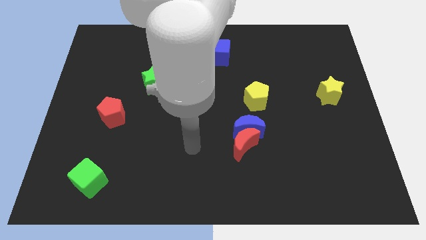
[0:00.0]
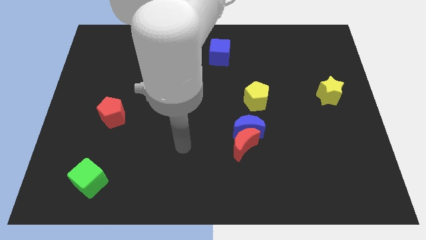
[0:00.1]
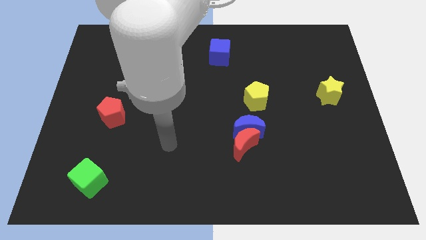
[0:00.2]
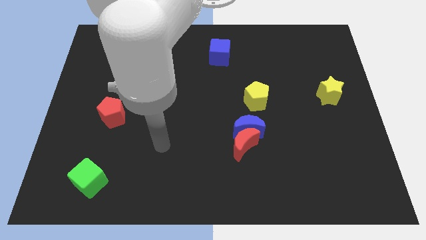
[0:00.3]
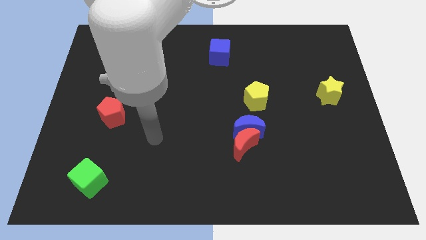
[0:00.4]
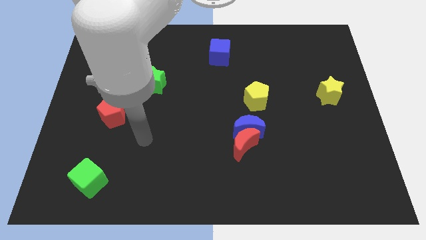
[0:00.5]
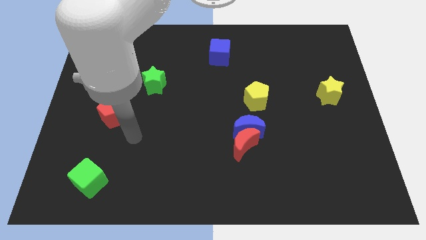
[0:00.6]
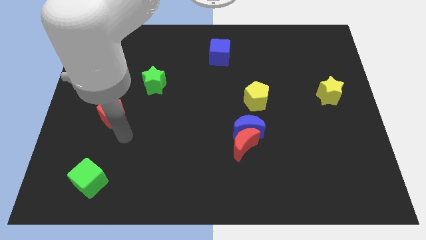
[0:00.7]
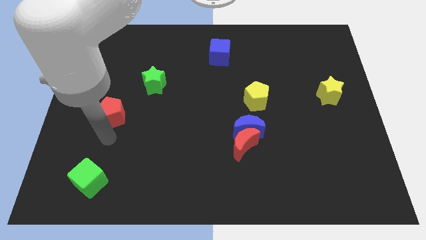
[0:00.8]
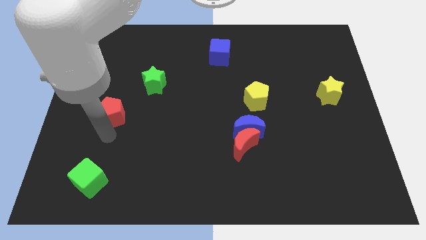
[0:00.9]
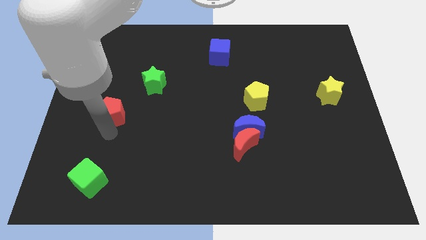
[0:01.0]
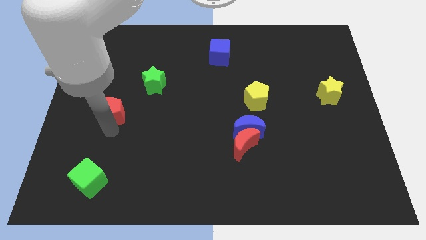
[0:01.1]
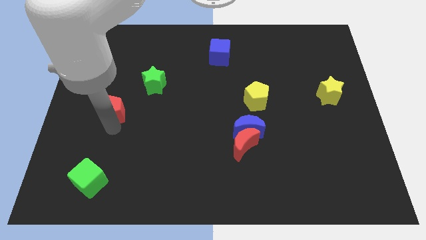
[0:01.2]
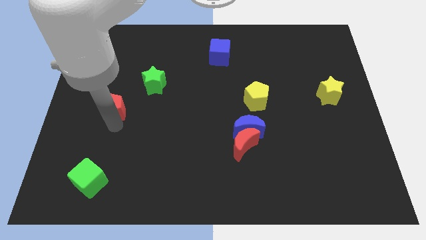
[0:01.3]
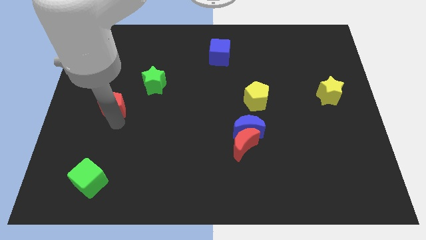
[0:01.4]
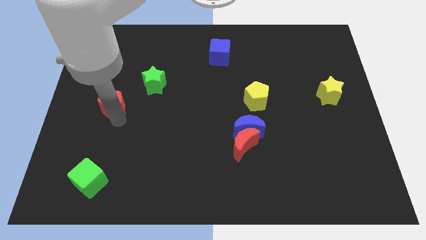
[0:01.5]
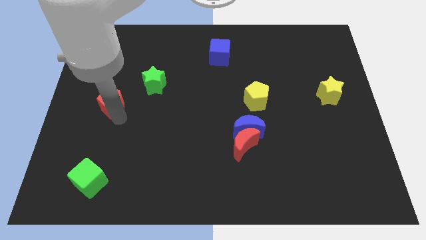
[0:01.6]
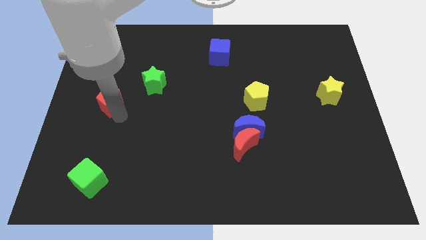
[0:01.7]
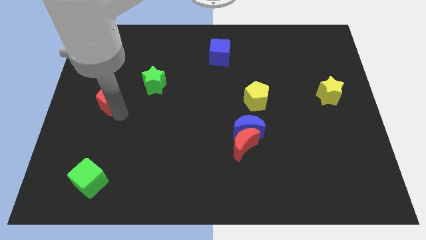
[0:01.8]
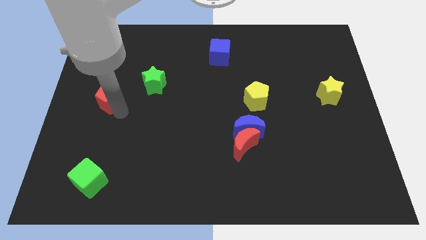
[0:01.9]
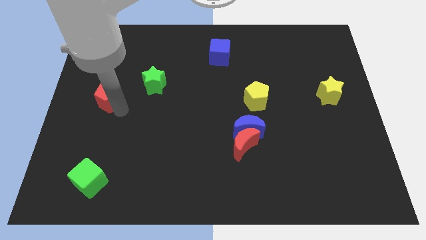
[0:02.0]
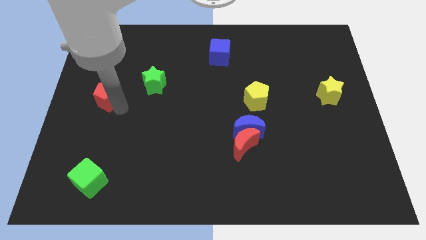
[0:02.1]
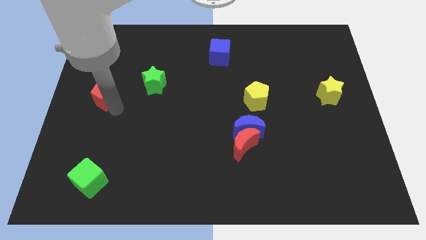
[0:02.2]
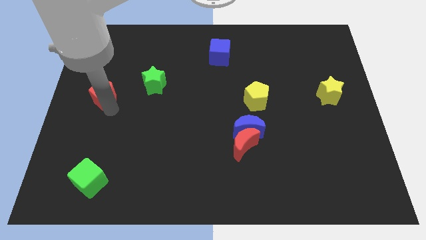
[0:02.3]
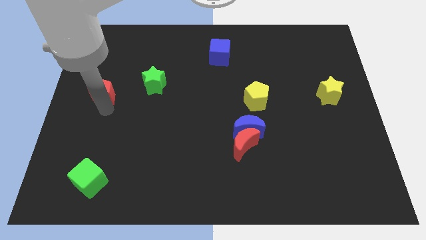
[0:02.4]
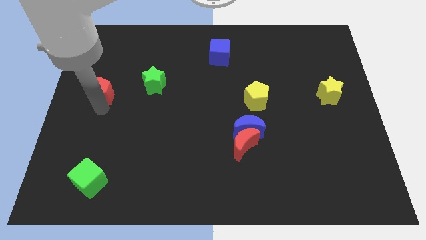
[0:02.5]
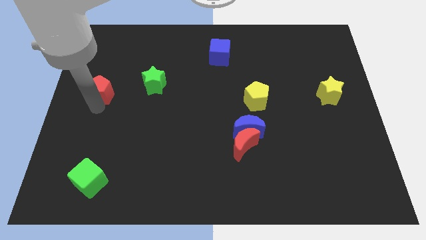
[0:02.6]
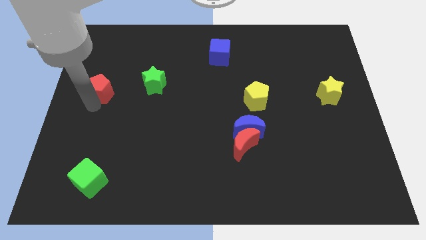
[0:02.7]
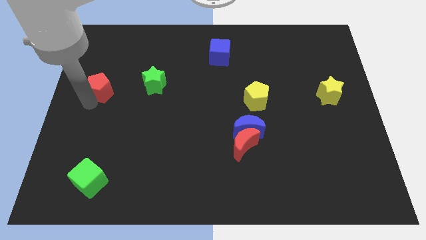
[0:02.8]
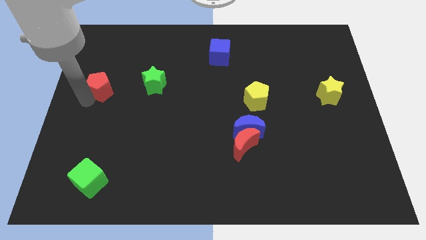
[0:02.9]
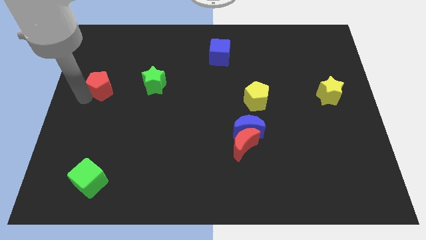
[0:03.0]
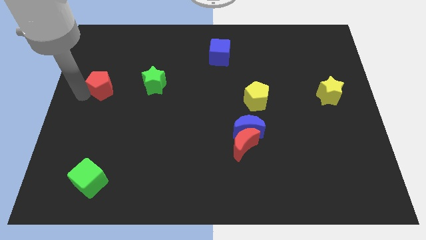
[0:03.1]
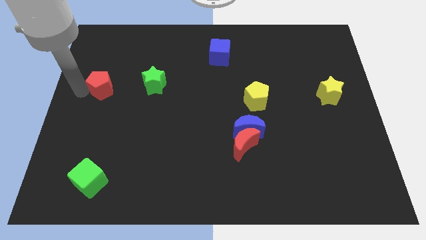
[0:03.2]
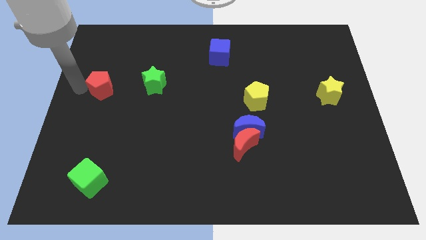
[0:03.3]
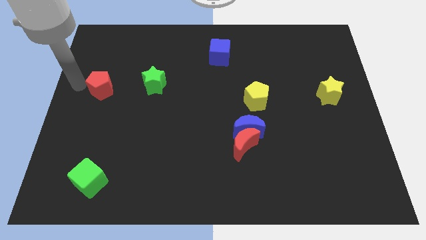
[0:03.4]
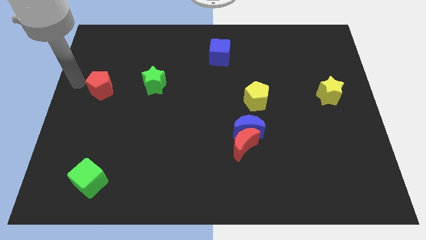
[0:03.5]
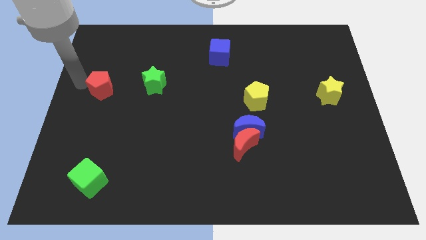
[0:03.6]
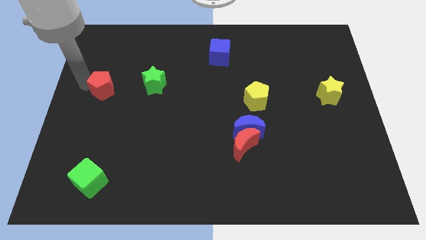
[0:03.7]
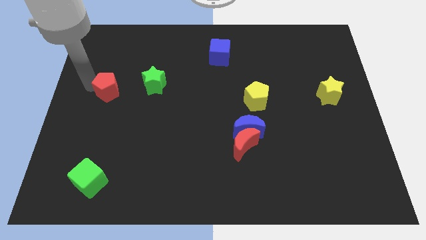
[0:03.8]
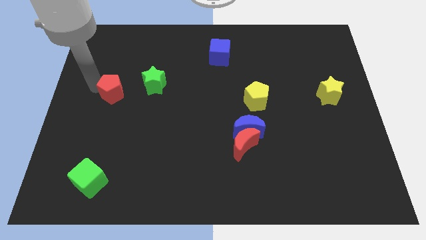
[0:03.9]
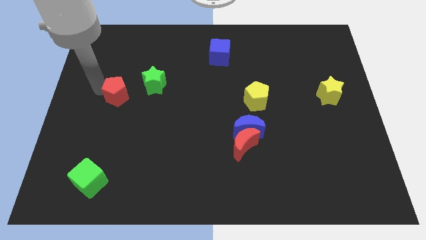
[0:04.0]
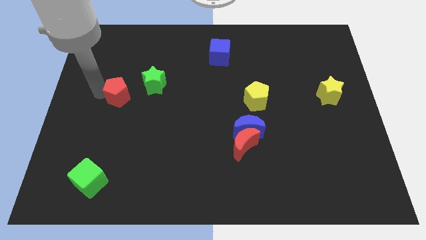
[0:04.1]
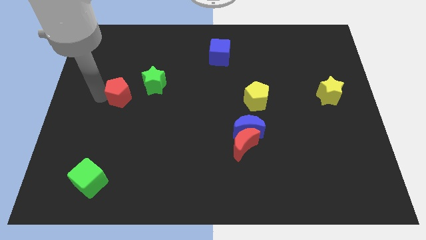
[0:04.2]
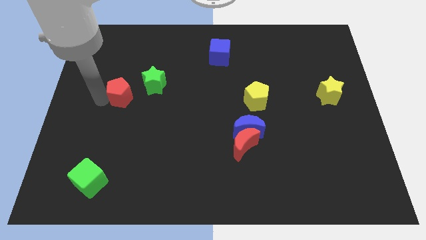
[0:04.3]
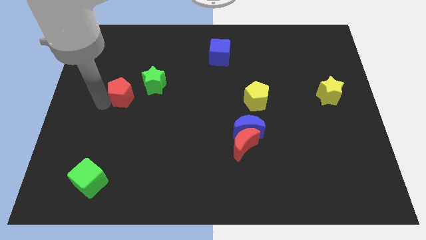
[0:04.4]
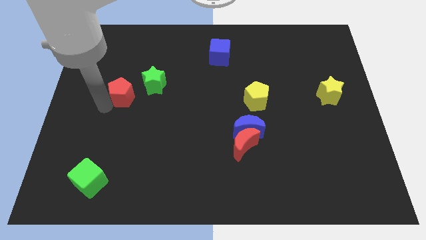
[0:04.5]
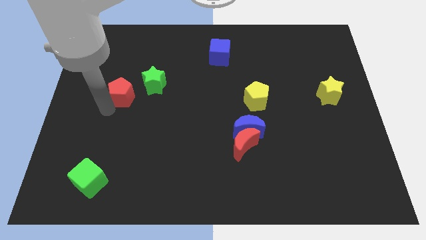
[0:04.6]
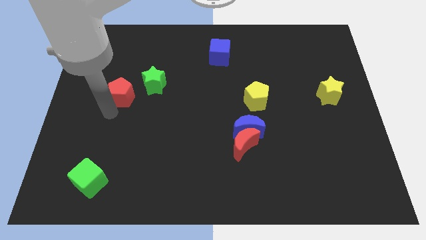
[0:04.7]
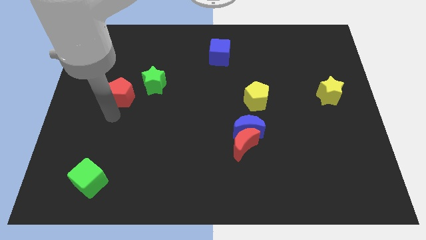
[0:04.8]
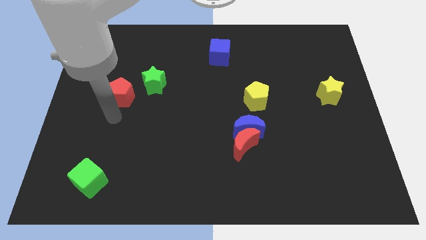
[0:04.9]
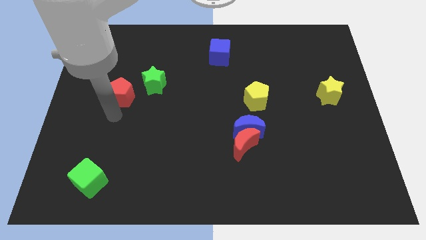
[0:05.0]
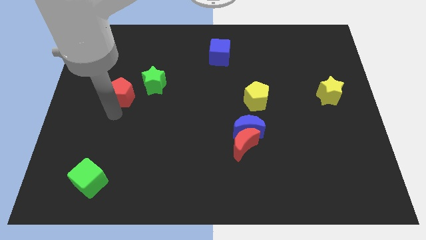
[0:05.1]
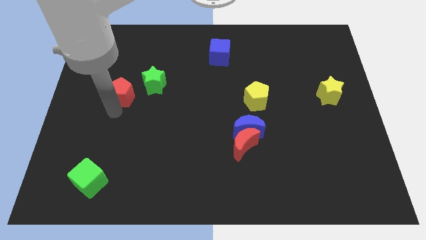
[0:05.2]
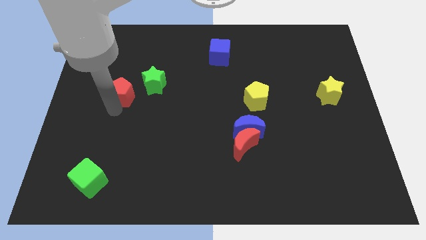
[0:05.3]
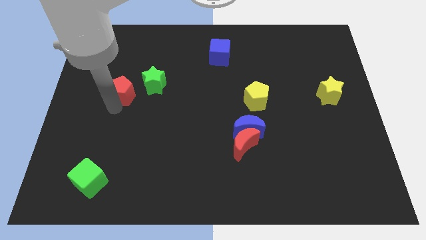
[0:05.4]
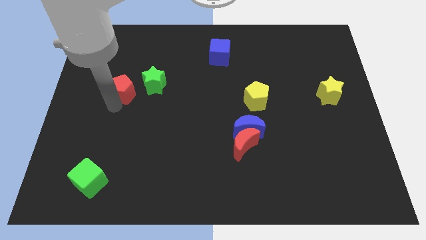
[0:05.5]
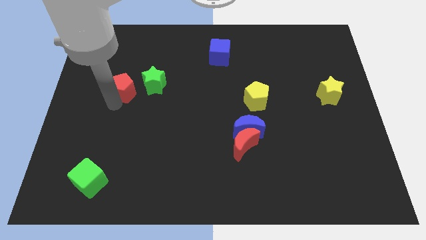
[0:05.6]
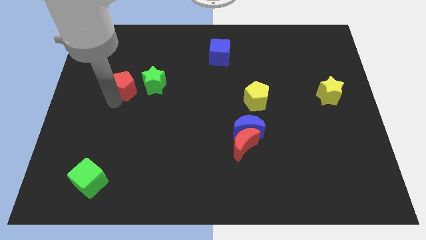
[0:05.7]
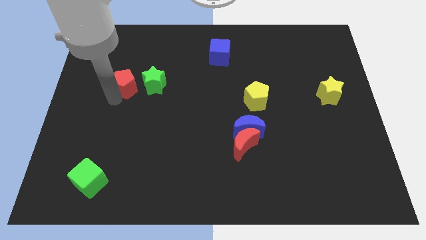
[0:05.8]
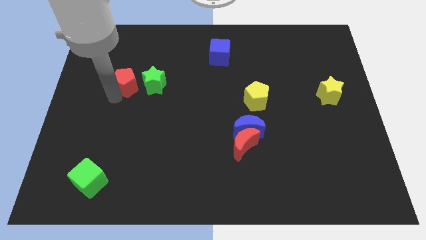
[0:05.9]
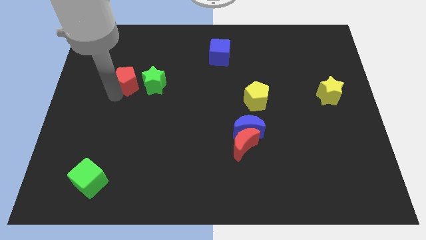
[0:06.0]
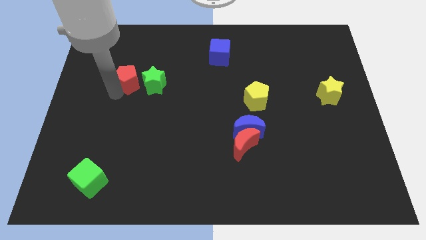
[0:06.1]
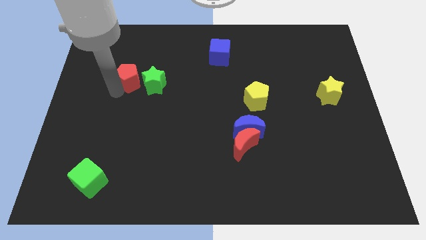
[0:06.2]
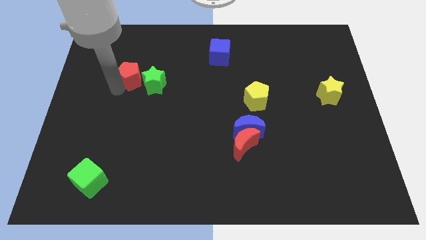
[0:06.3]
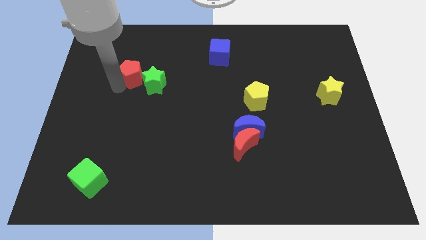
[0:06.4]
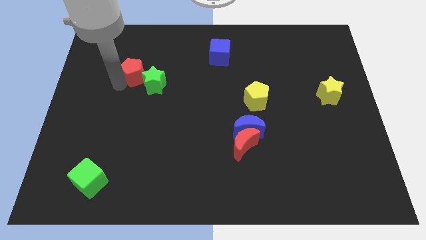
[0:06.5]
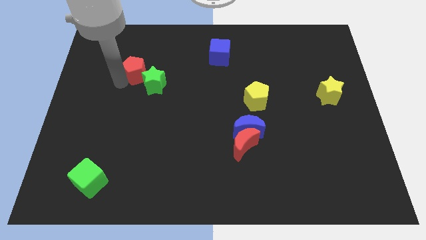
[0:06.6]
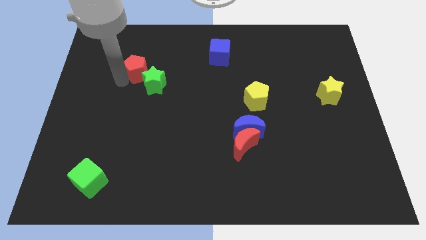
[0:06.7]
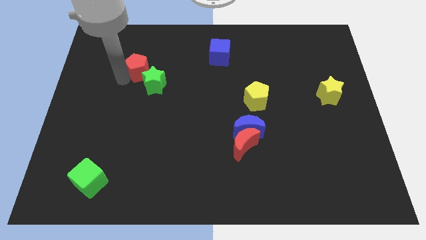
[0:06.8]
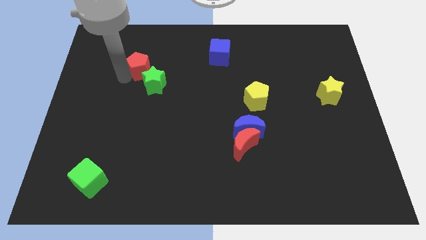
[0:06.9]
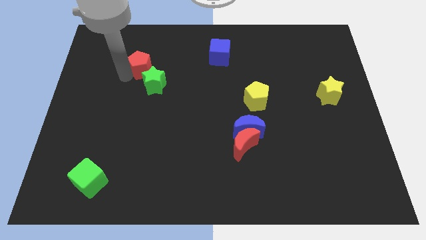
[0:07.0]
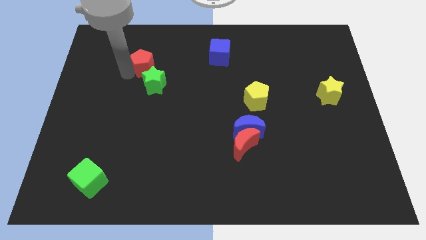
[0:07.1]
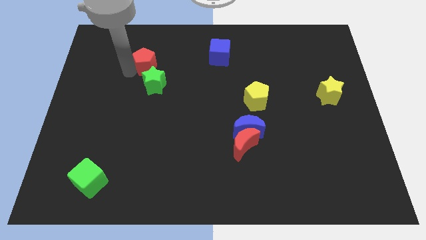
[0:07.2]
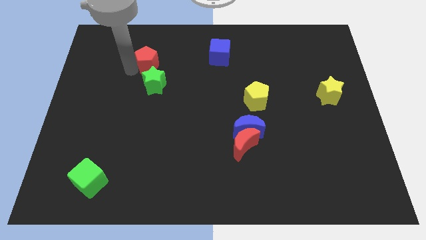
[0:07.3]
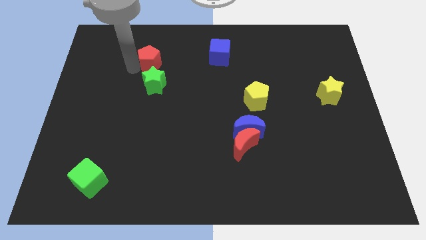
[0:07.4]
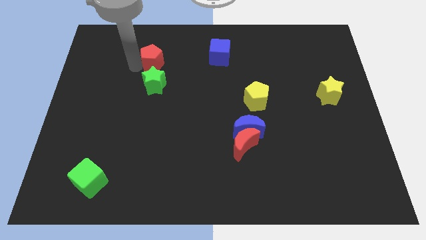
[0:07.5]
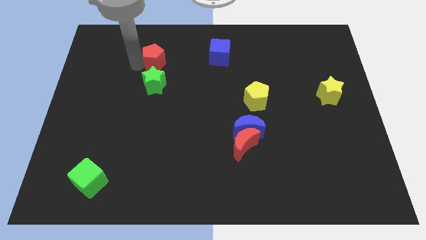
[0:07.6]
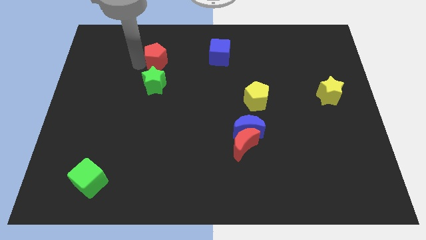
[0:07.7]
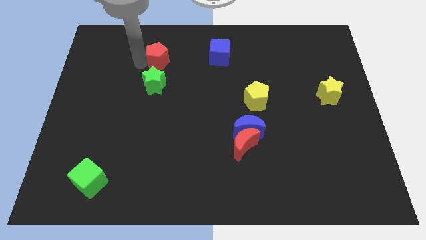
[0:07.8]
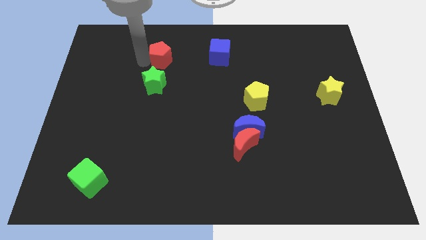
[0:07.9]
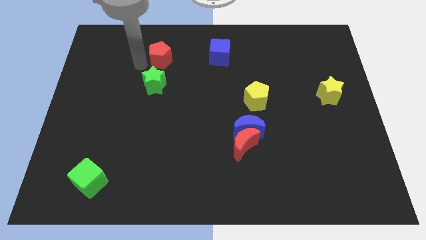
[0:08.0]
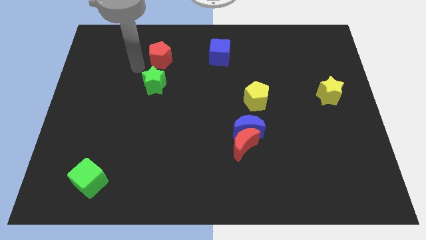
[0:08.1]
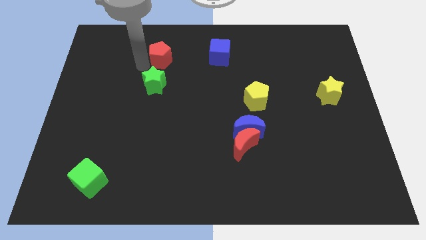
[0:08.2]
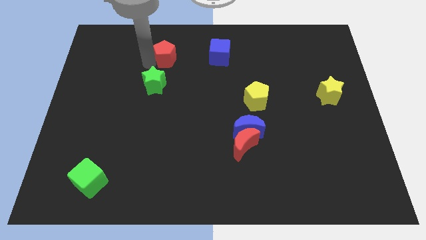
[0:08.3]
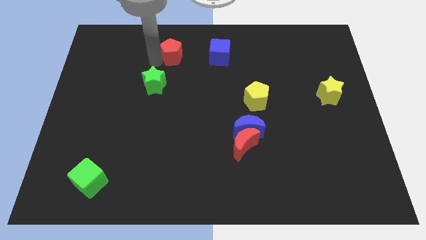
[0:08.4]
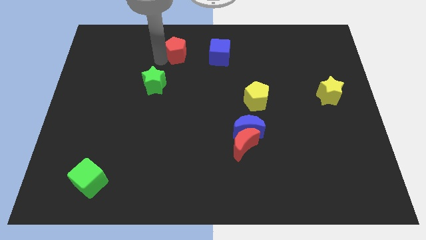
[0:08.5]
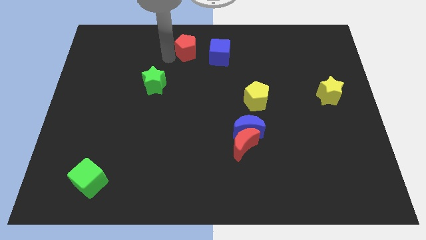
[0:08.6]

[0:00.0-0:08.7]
put the red pentagon to the top
